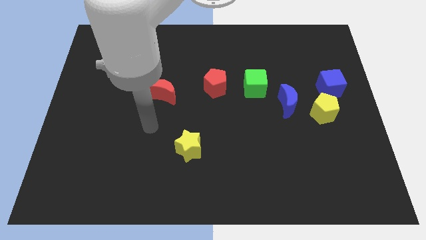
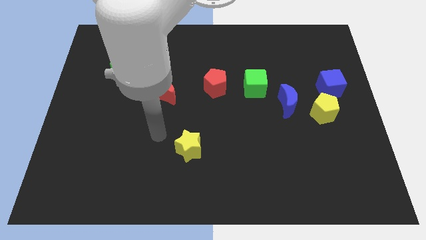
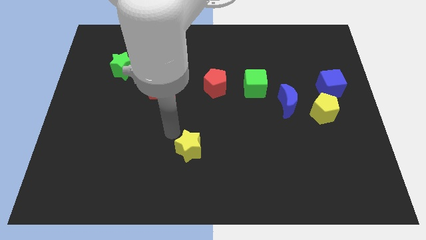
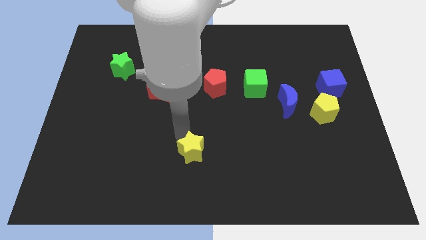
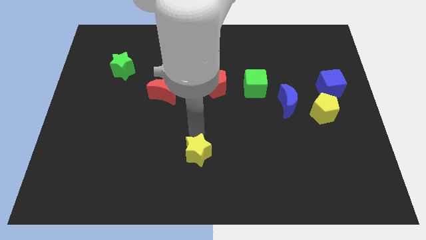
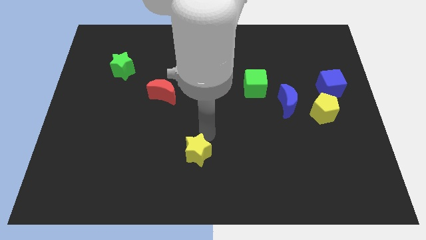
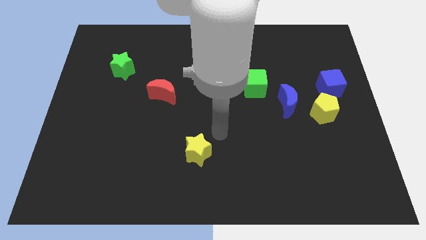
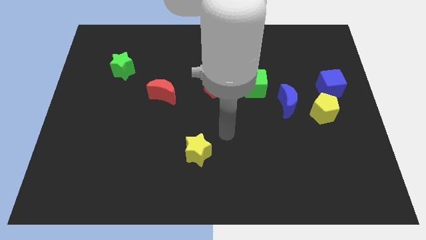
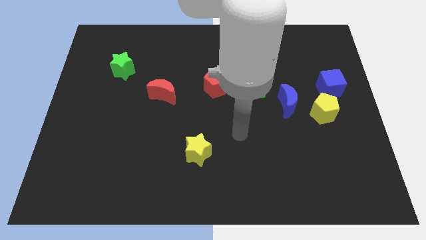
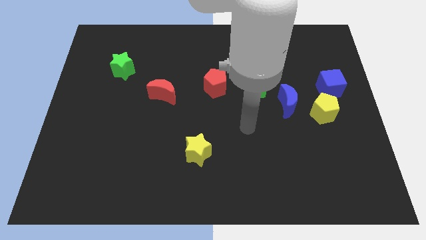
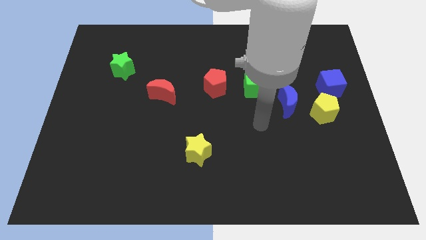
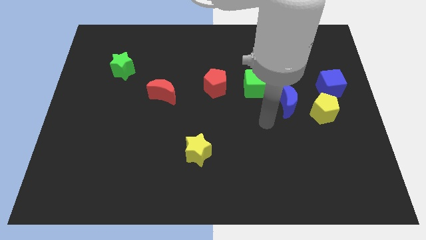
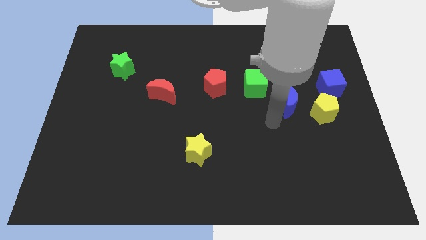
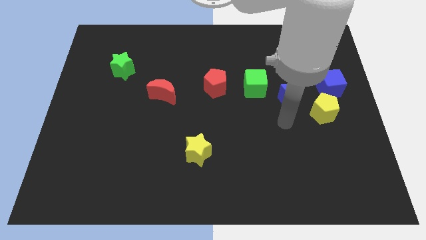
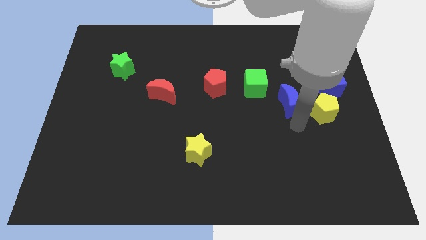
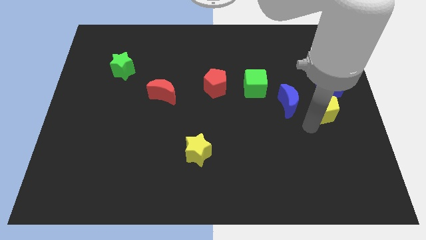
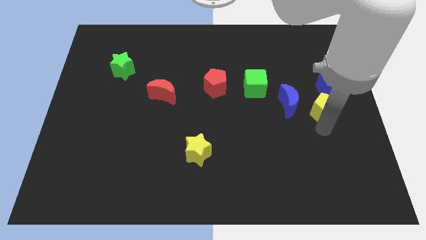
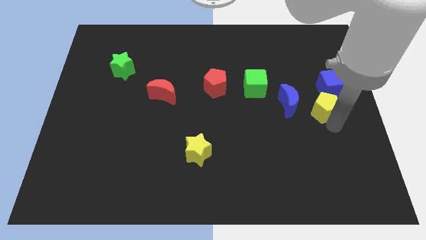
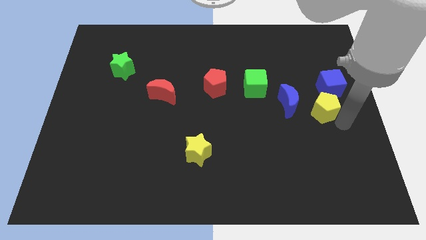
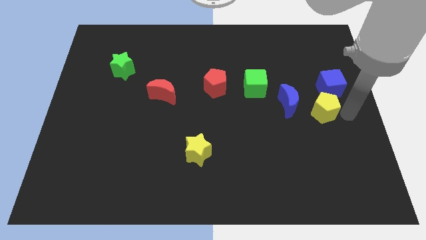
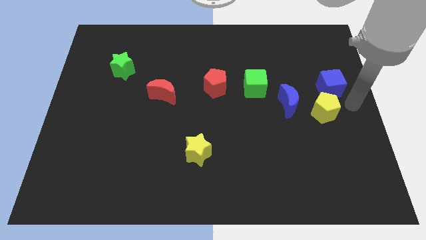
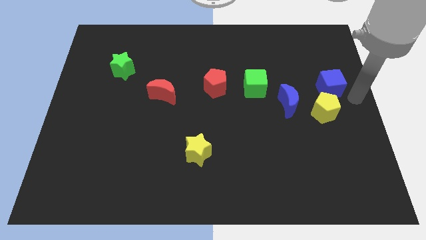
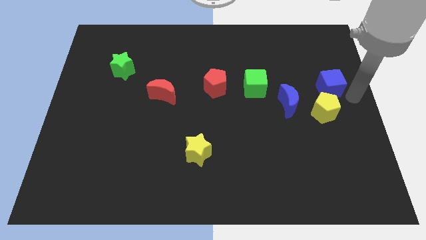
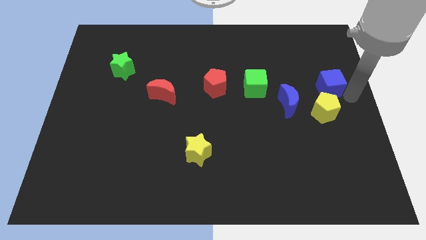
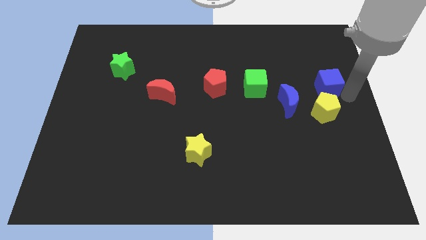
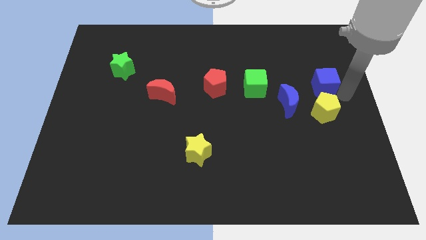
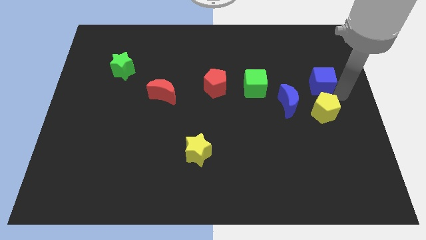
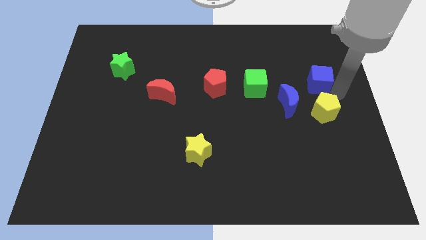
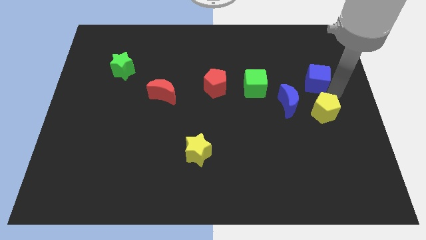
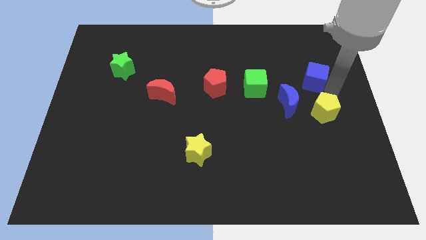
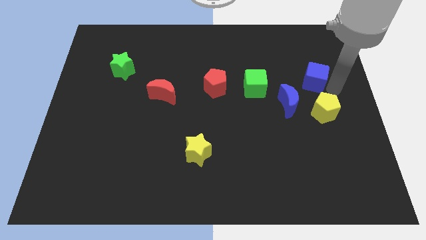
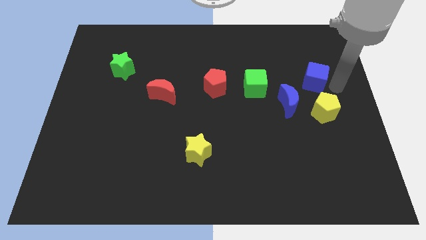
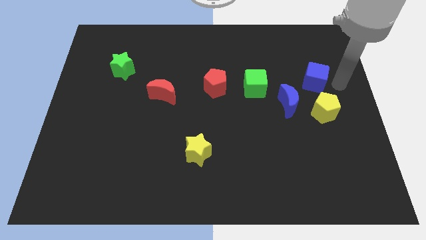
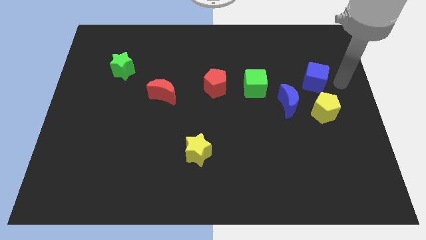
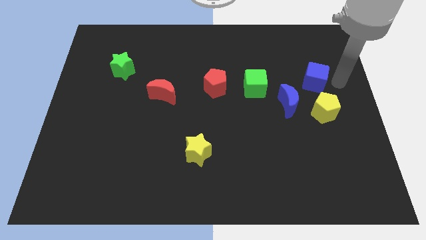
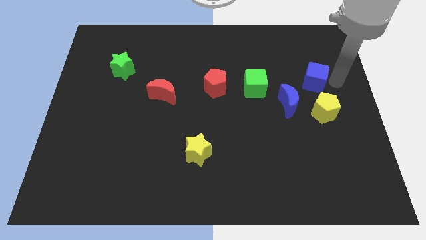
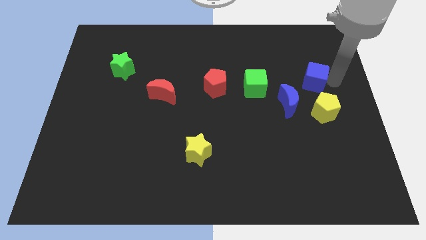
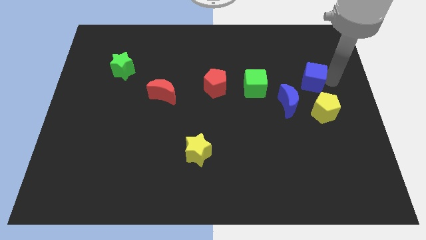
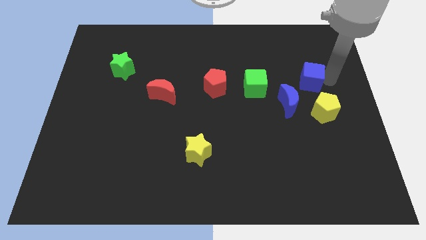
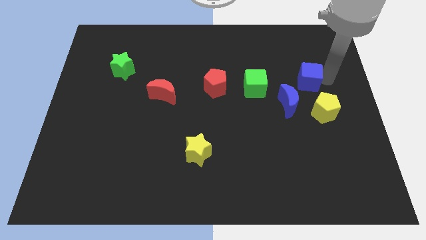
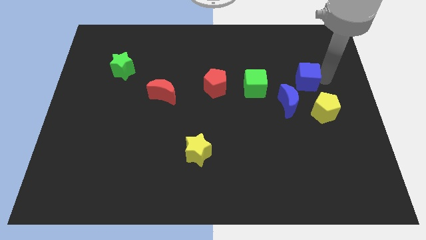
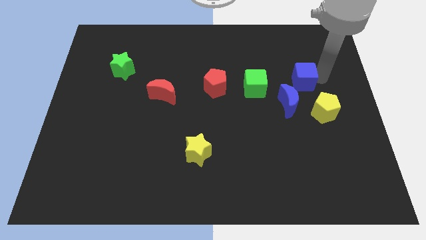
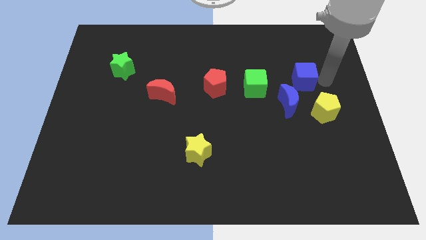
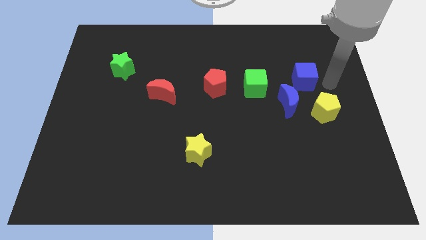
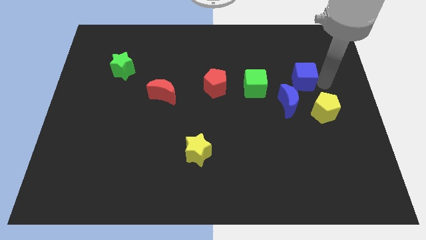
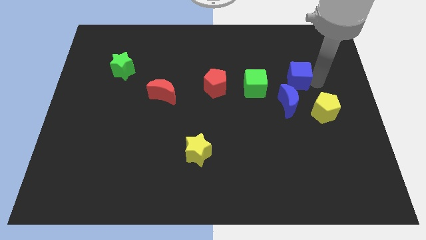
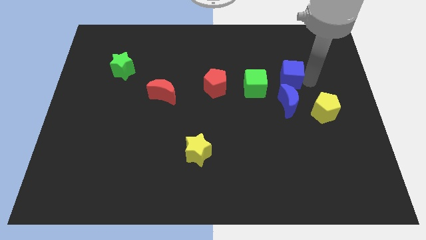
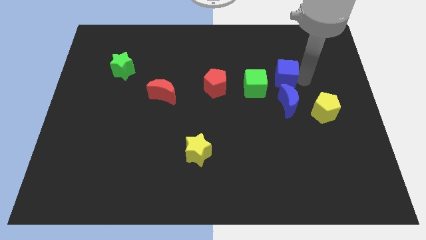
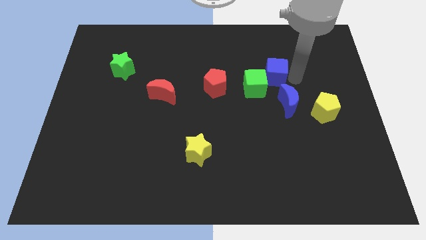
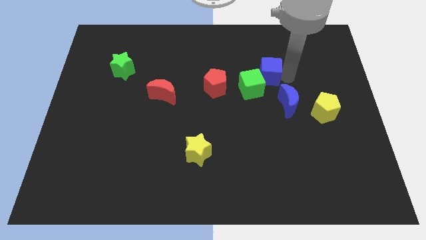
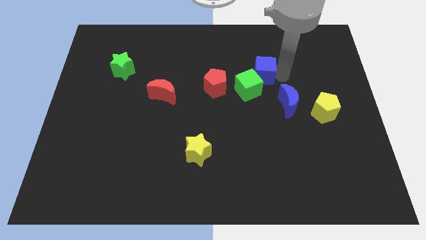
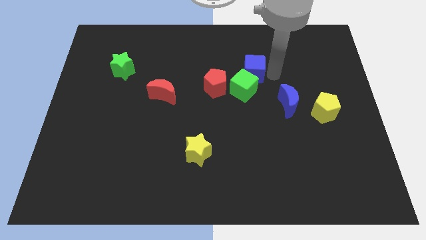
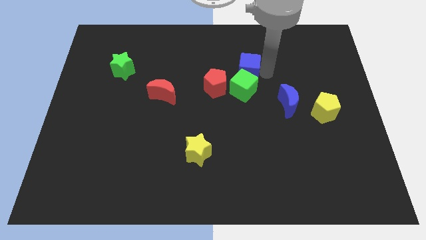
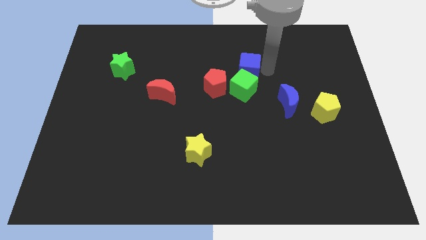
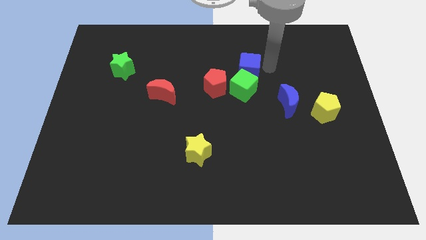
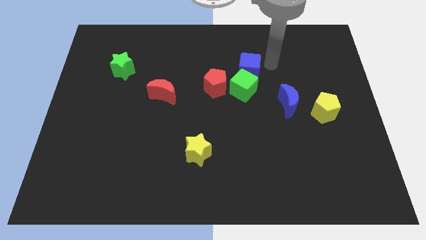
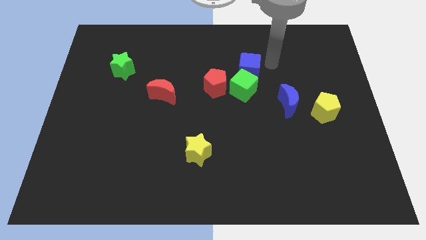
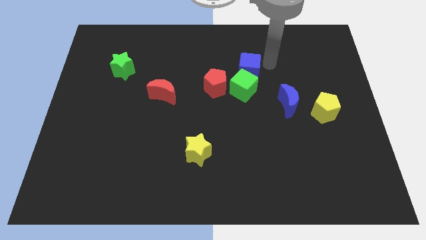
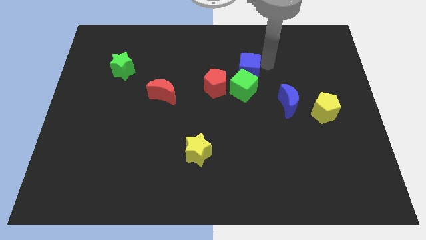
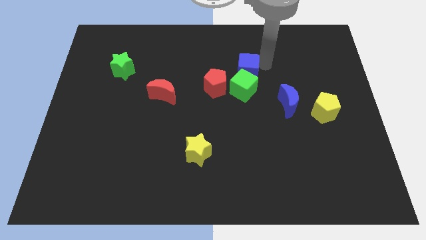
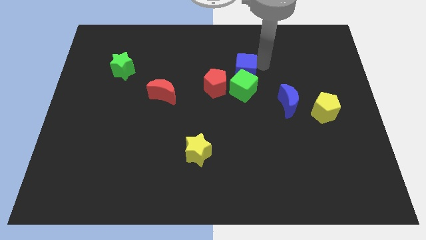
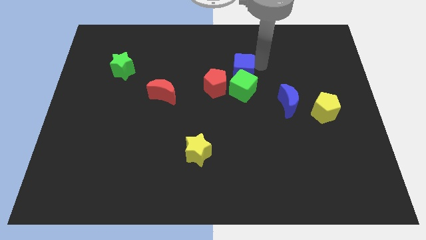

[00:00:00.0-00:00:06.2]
slide the blue cube to the left

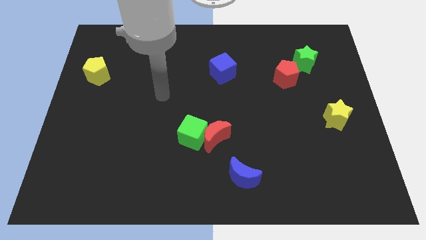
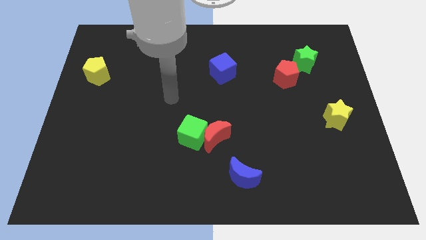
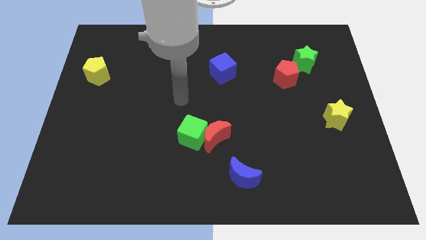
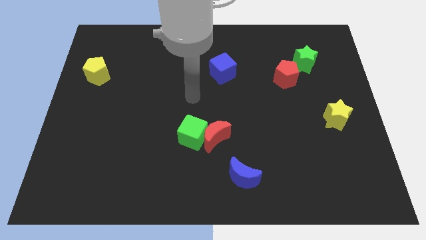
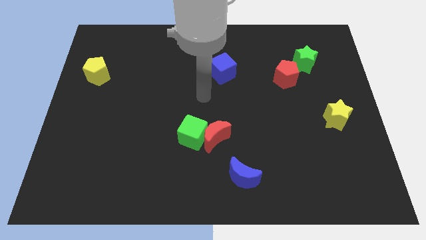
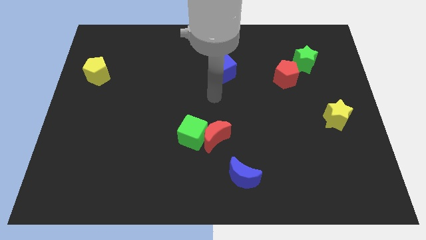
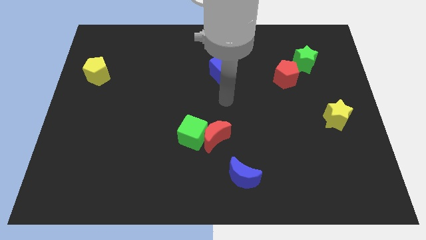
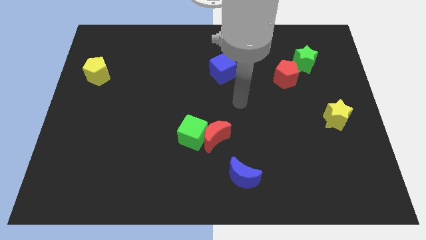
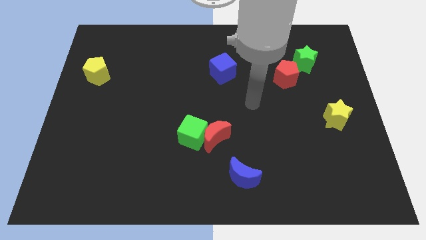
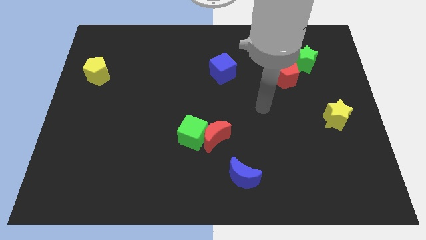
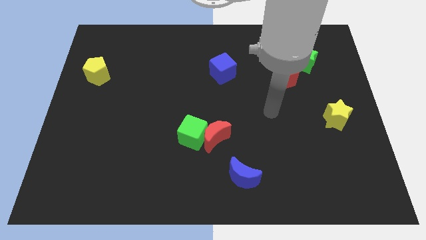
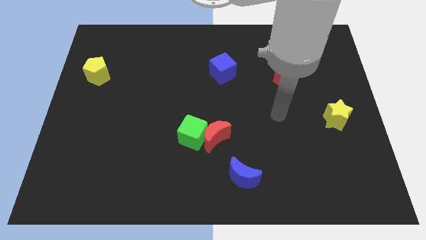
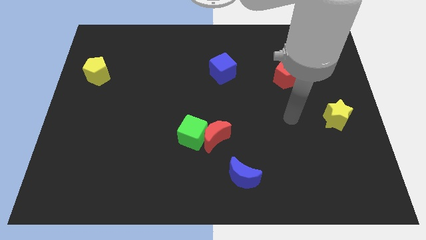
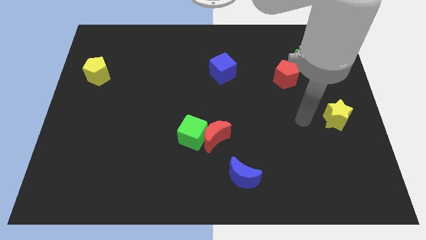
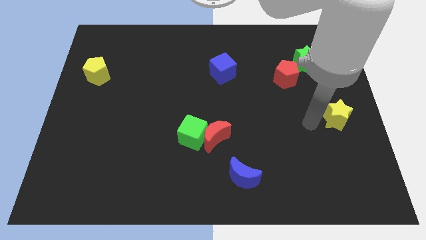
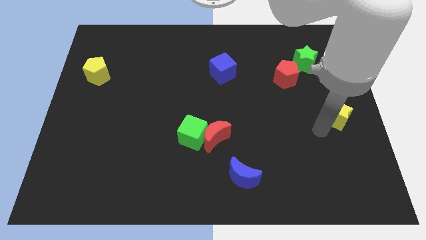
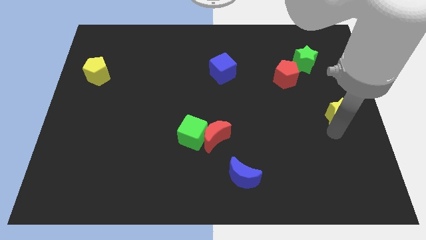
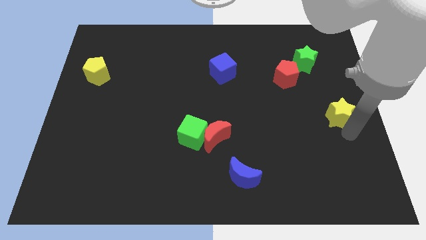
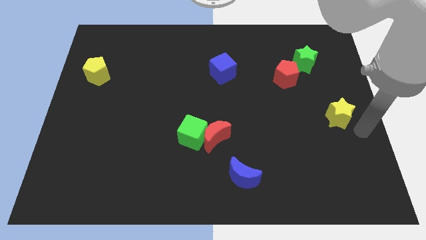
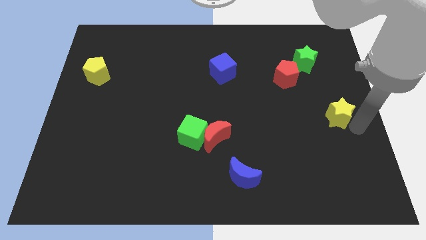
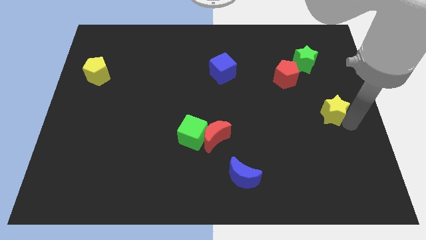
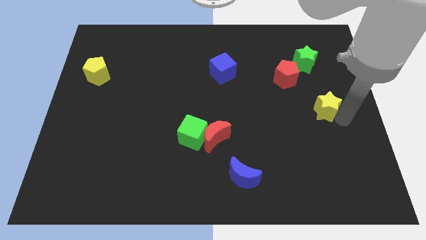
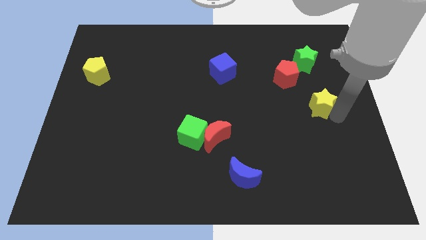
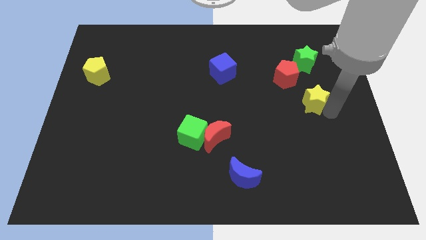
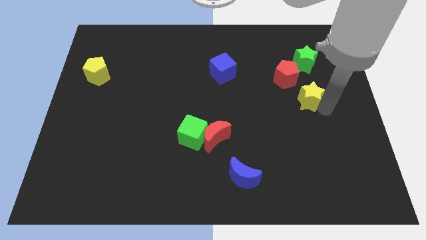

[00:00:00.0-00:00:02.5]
slightly move the yellow star upwards and to the left diagonally
